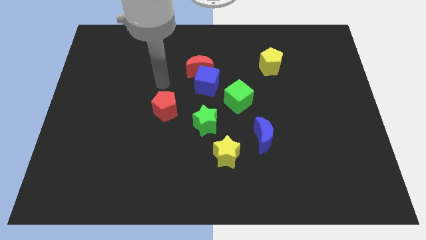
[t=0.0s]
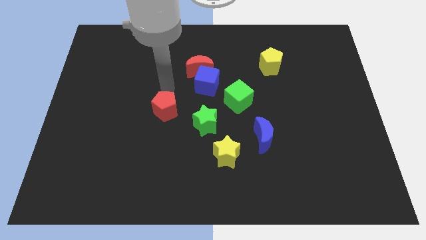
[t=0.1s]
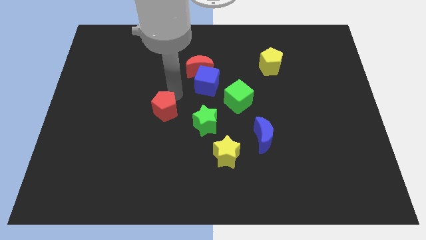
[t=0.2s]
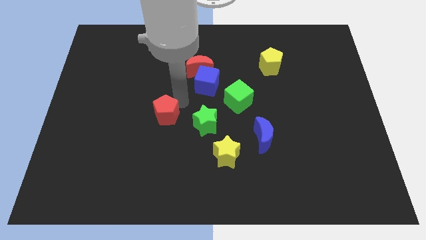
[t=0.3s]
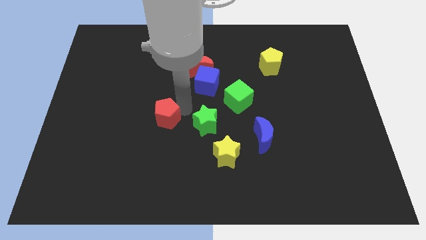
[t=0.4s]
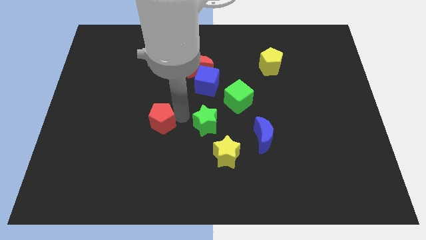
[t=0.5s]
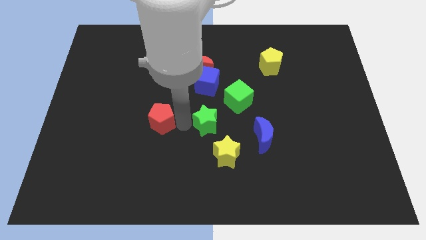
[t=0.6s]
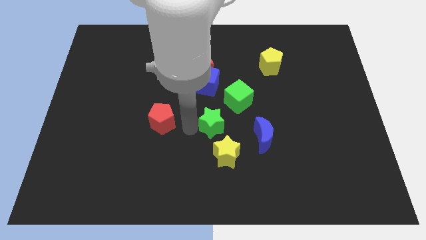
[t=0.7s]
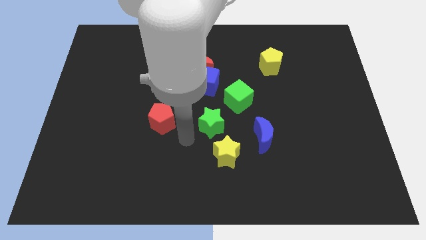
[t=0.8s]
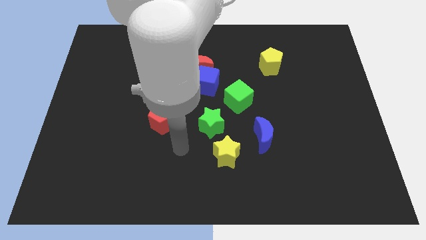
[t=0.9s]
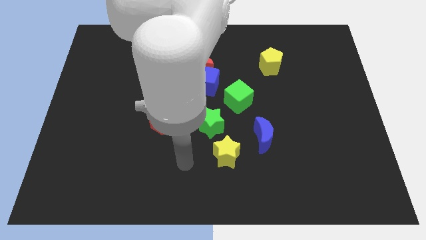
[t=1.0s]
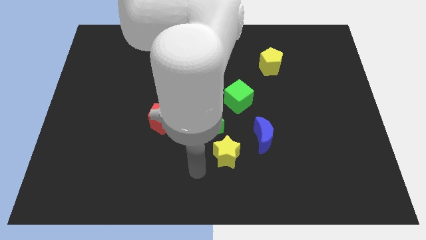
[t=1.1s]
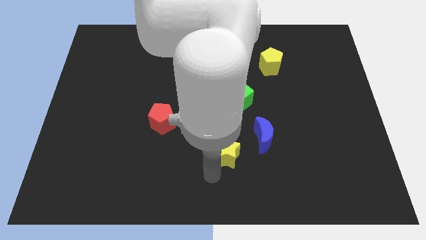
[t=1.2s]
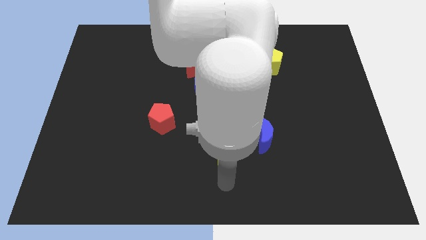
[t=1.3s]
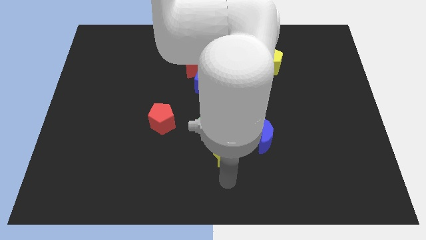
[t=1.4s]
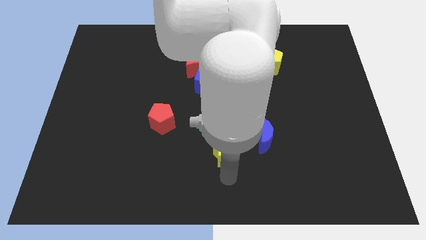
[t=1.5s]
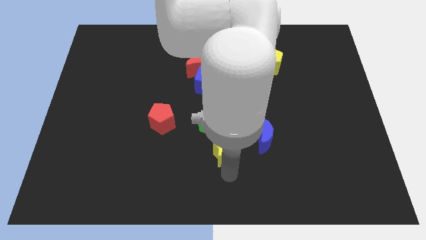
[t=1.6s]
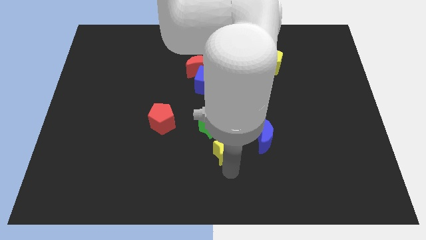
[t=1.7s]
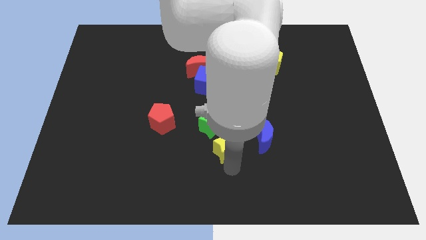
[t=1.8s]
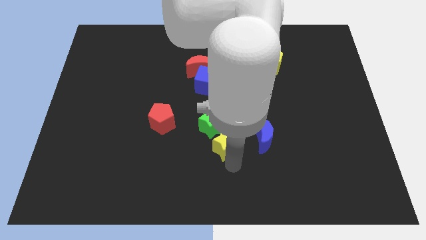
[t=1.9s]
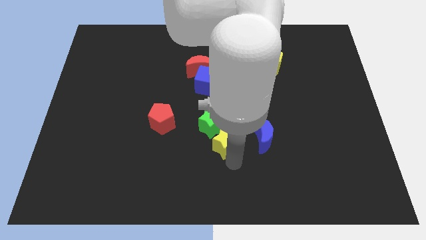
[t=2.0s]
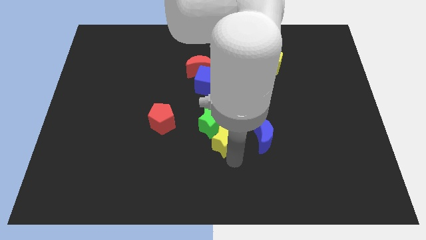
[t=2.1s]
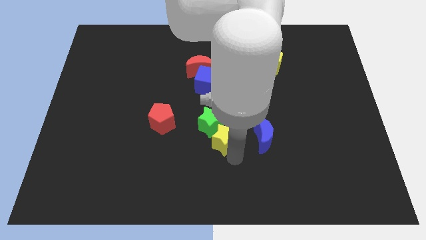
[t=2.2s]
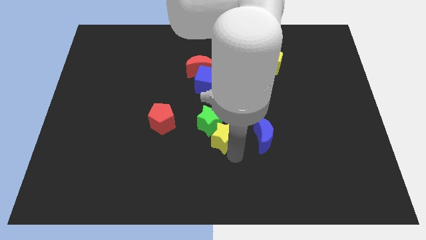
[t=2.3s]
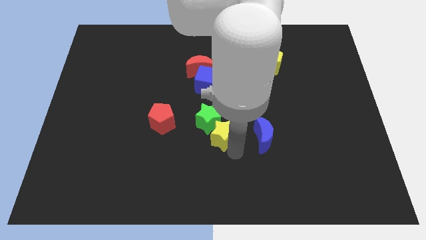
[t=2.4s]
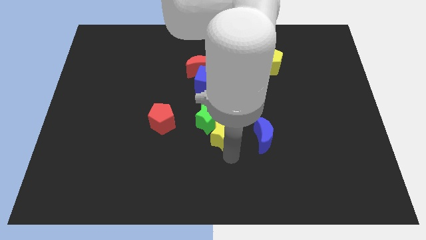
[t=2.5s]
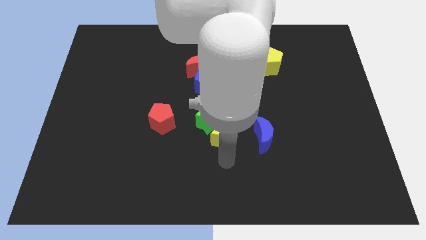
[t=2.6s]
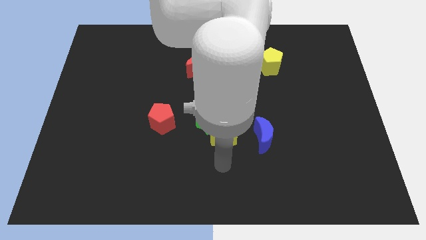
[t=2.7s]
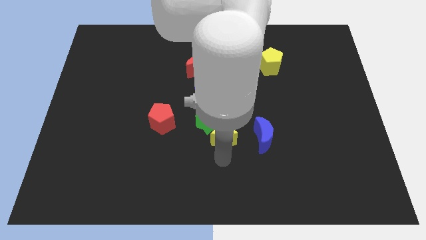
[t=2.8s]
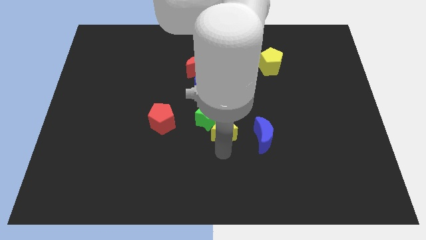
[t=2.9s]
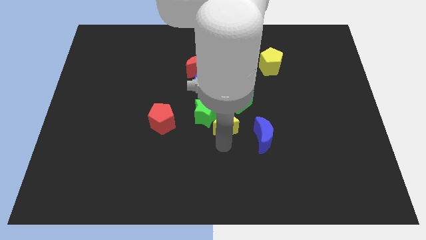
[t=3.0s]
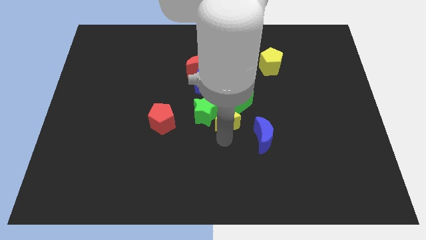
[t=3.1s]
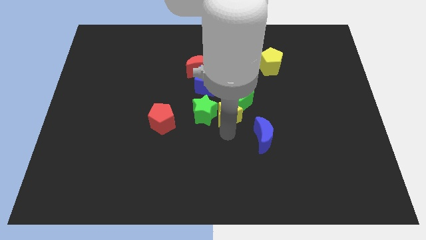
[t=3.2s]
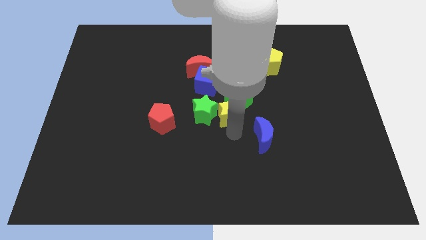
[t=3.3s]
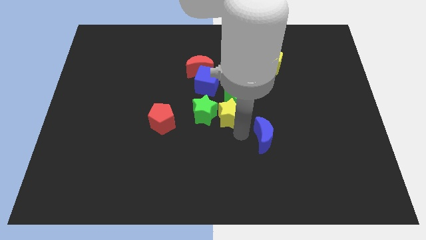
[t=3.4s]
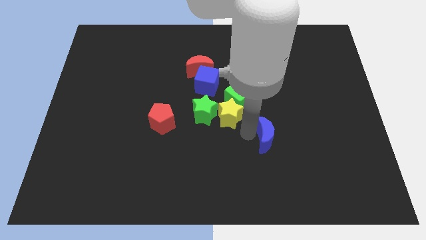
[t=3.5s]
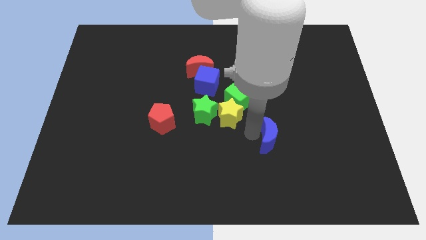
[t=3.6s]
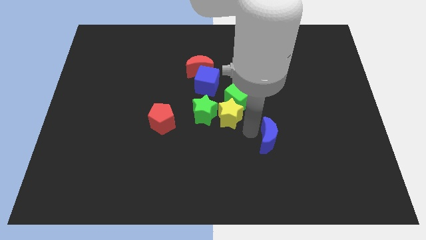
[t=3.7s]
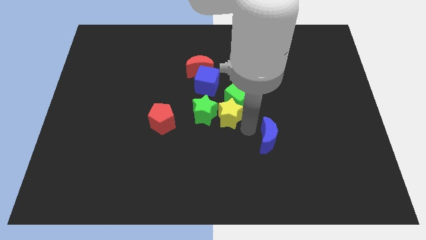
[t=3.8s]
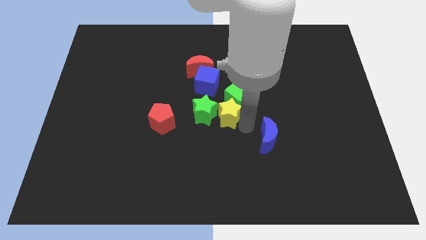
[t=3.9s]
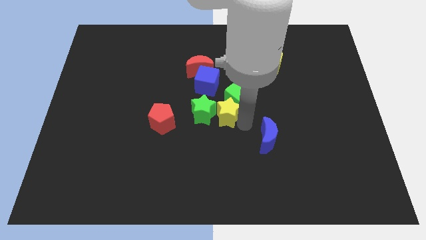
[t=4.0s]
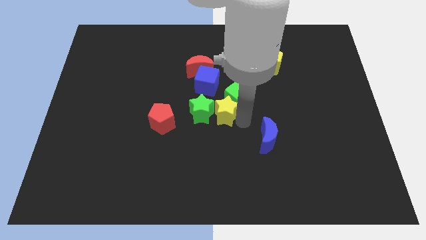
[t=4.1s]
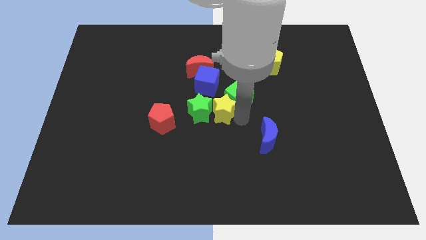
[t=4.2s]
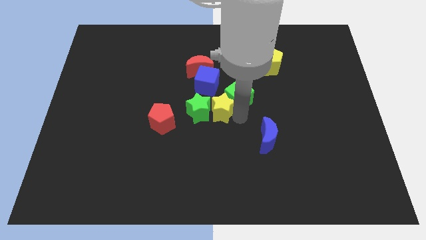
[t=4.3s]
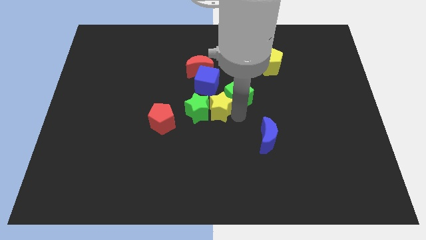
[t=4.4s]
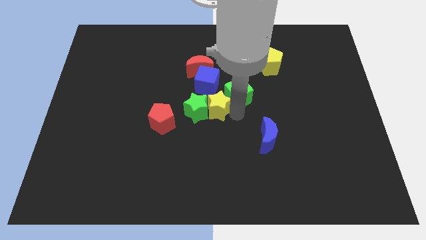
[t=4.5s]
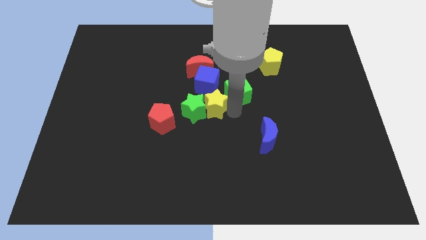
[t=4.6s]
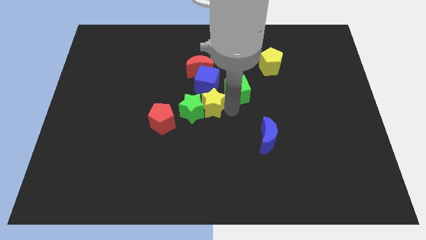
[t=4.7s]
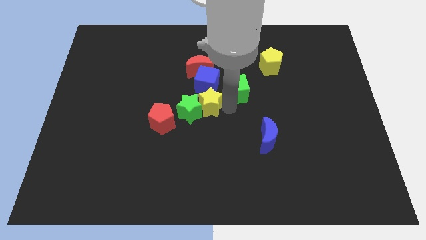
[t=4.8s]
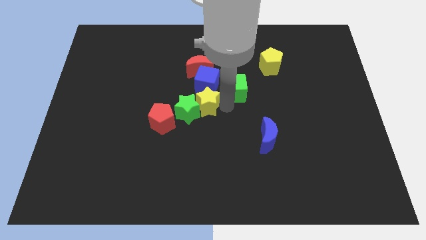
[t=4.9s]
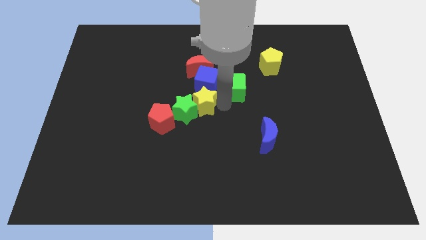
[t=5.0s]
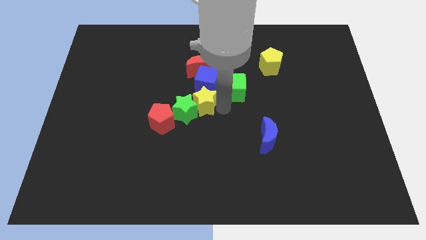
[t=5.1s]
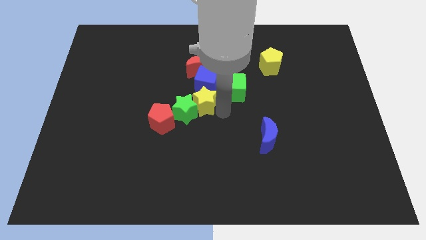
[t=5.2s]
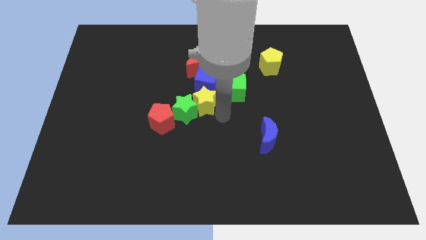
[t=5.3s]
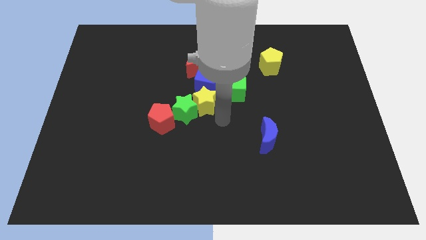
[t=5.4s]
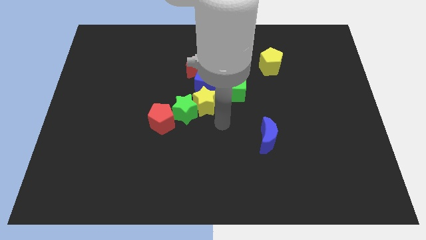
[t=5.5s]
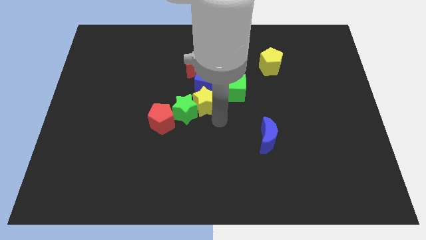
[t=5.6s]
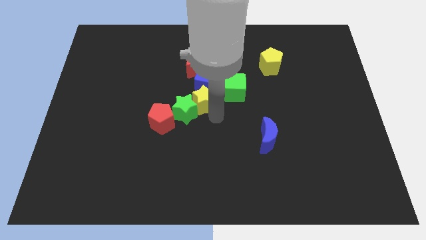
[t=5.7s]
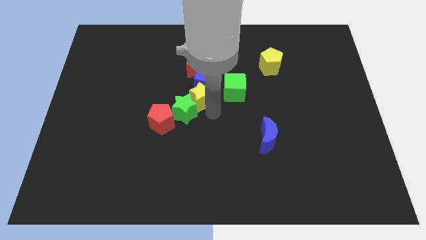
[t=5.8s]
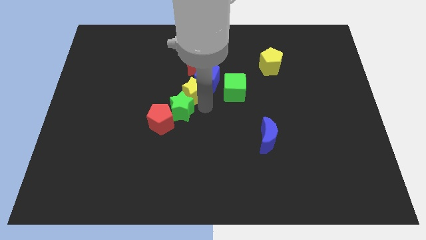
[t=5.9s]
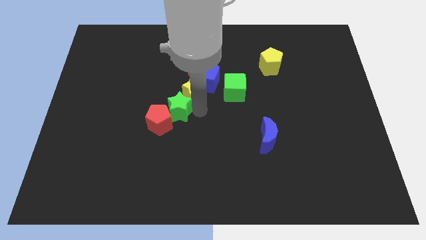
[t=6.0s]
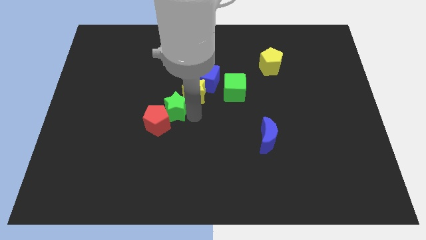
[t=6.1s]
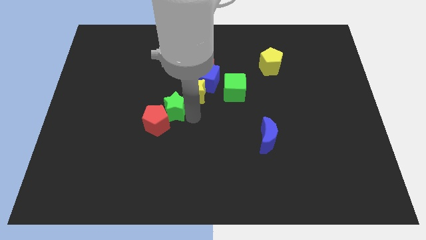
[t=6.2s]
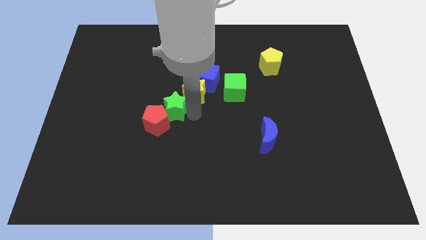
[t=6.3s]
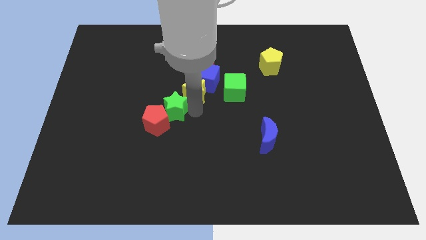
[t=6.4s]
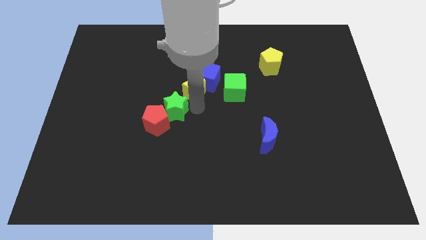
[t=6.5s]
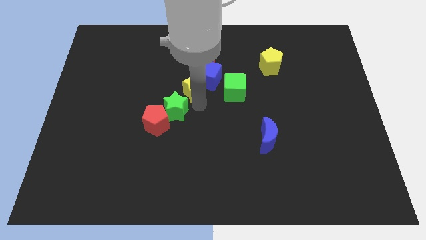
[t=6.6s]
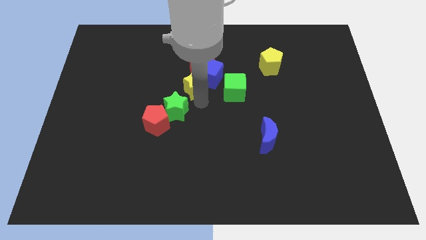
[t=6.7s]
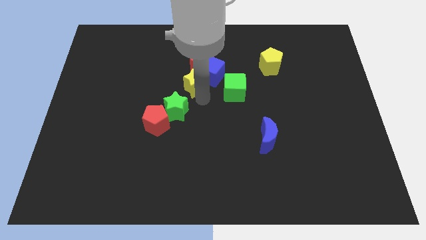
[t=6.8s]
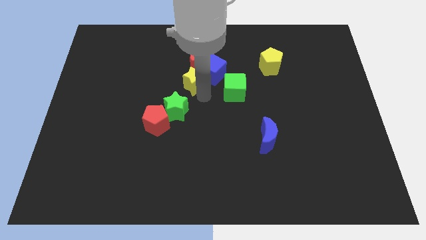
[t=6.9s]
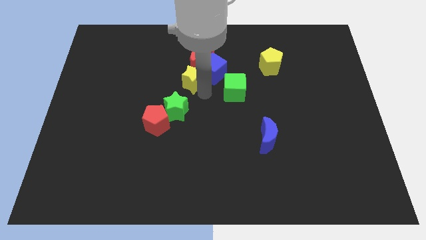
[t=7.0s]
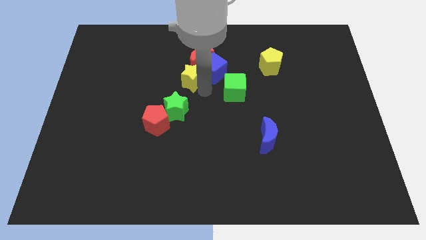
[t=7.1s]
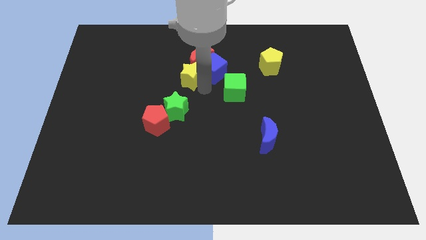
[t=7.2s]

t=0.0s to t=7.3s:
slide the yellow star next to the red moon

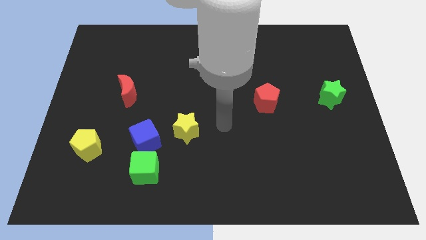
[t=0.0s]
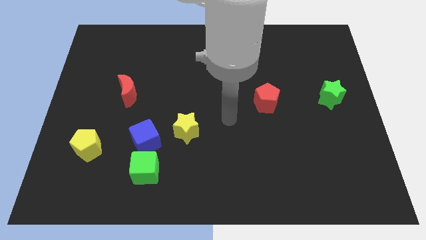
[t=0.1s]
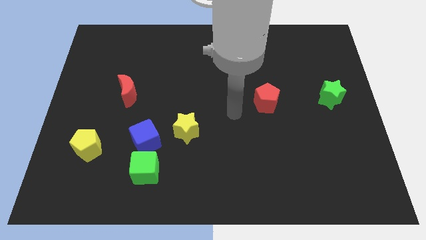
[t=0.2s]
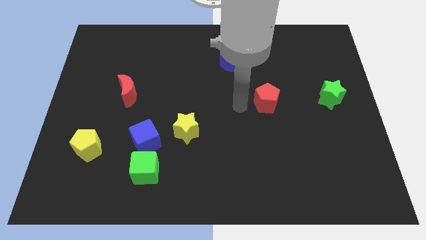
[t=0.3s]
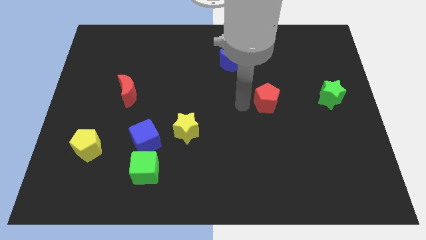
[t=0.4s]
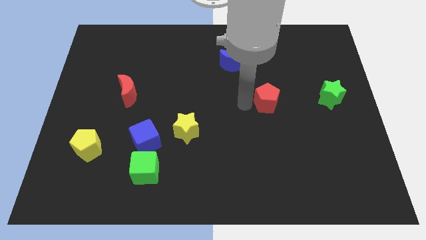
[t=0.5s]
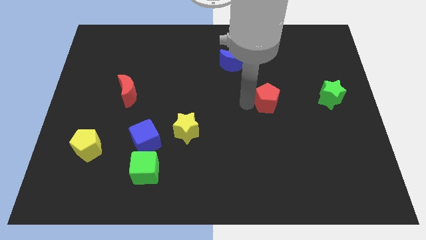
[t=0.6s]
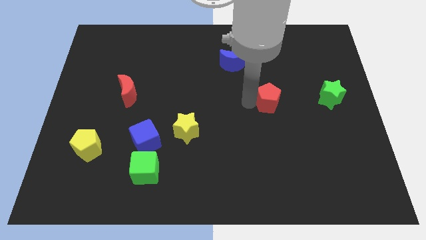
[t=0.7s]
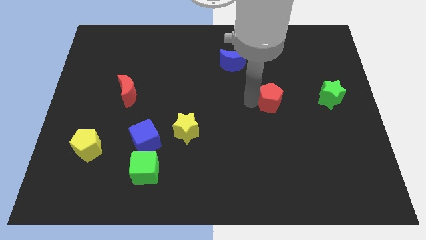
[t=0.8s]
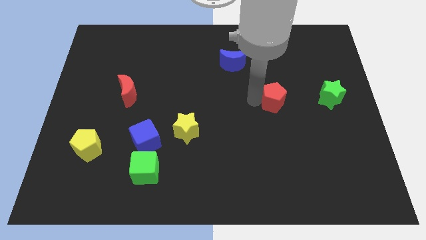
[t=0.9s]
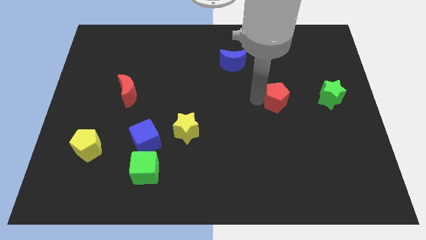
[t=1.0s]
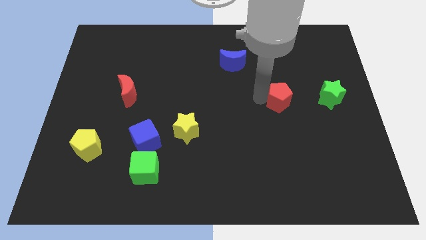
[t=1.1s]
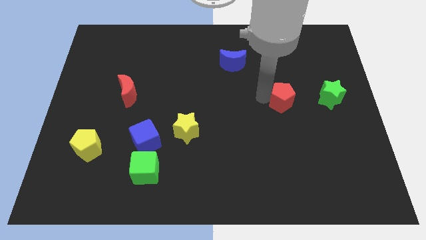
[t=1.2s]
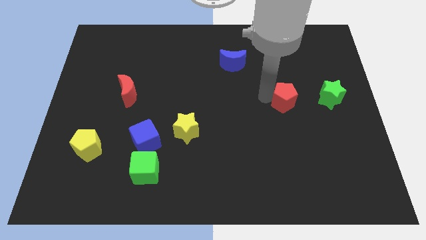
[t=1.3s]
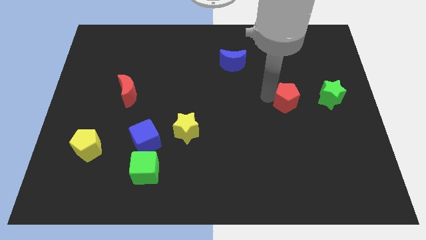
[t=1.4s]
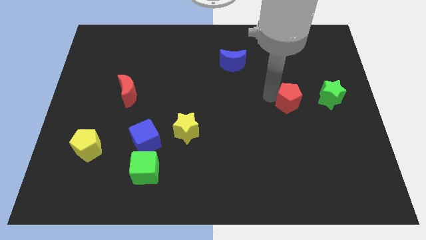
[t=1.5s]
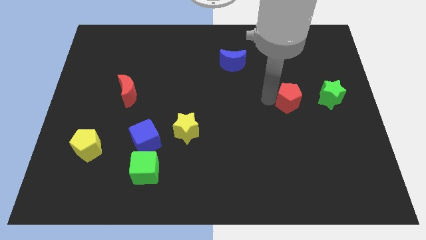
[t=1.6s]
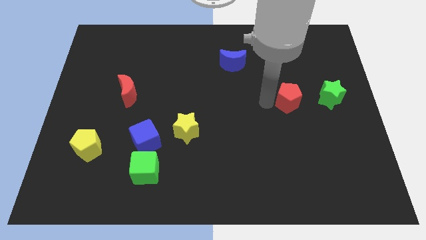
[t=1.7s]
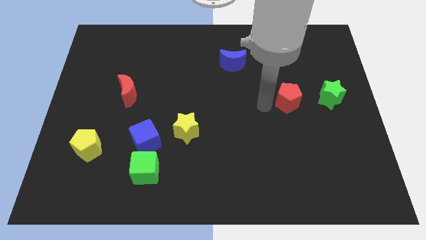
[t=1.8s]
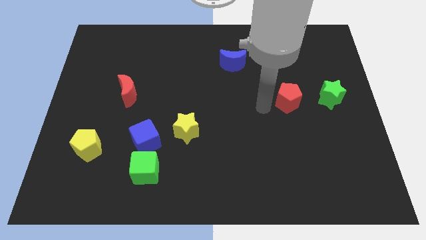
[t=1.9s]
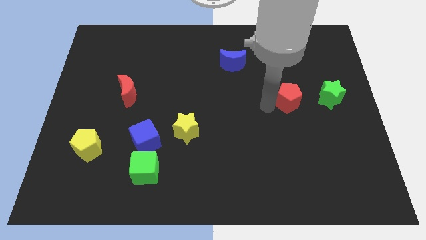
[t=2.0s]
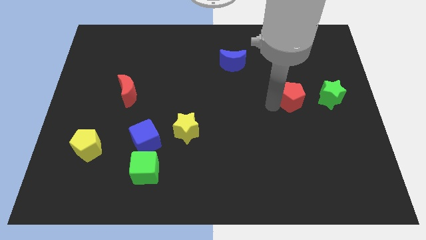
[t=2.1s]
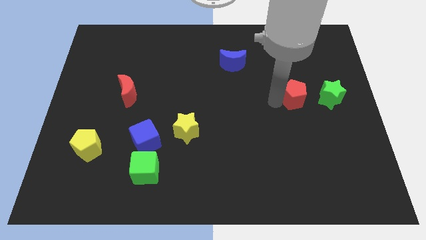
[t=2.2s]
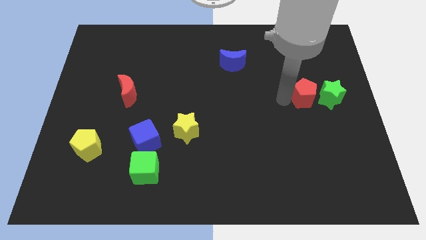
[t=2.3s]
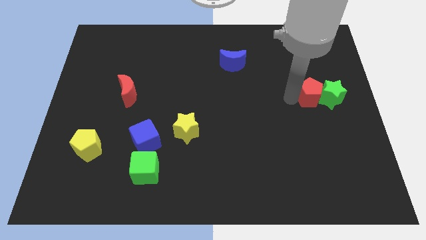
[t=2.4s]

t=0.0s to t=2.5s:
move the red pentagon next to the green star
